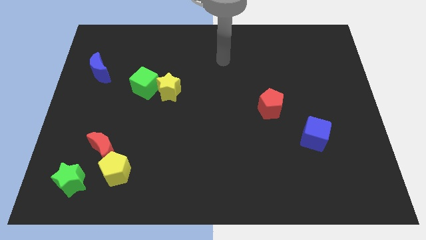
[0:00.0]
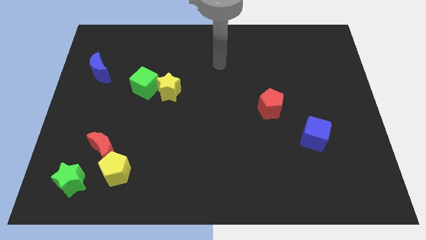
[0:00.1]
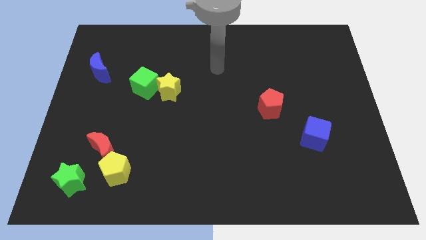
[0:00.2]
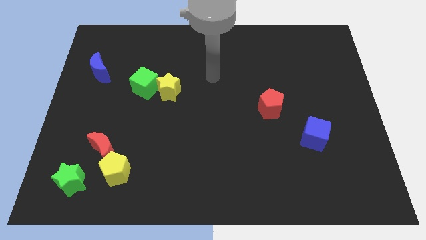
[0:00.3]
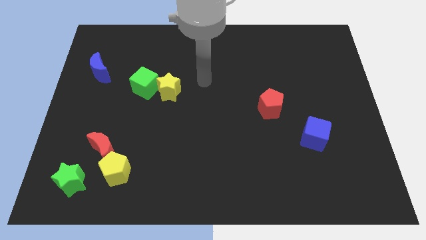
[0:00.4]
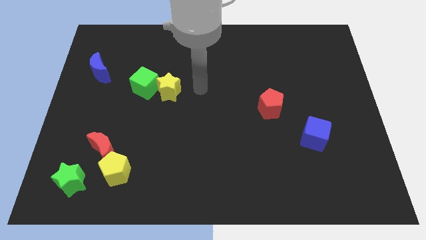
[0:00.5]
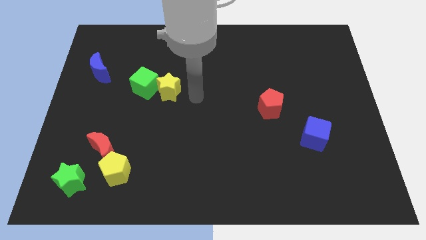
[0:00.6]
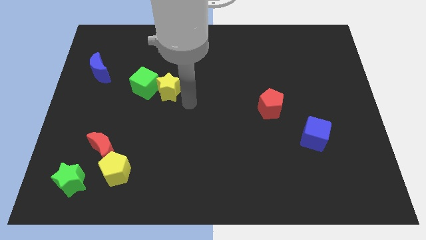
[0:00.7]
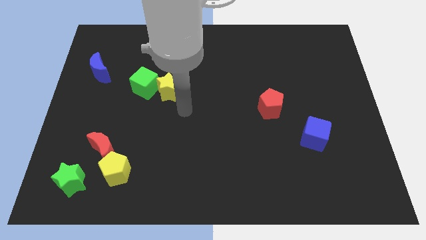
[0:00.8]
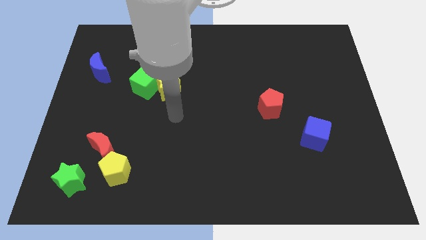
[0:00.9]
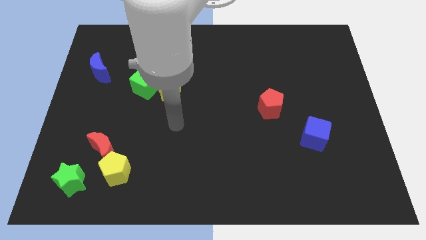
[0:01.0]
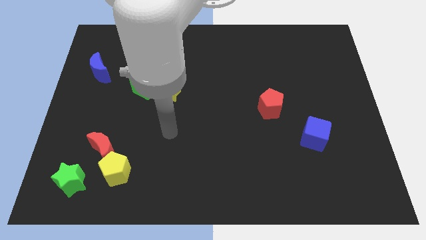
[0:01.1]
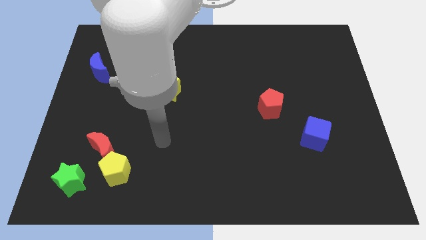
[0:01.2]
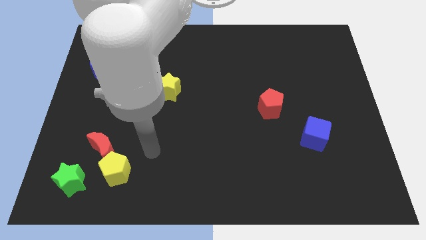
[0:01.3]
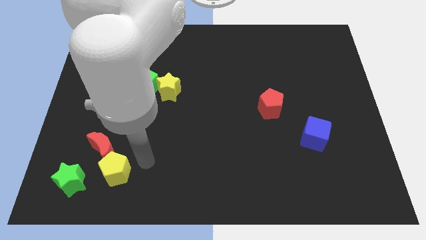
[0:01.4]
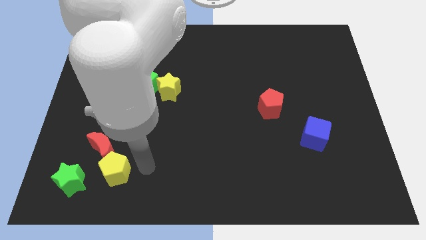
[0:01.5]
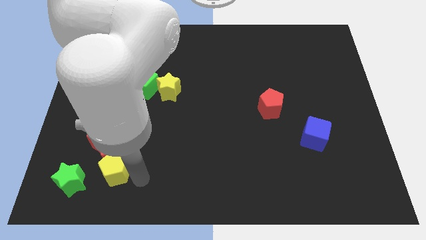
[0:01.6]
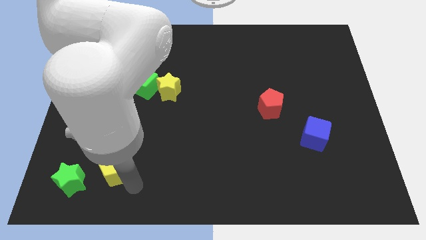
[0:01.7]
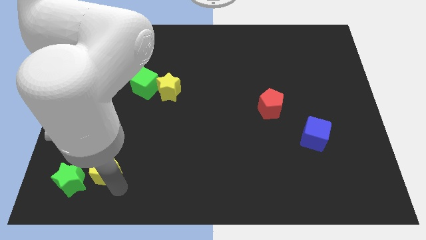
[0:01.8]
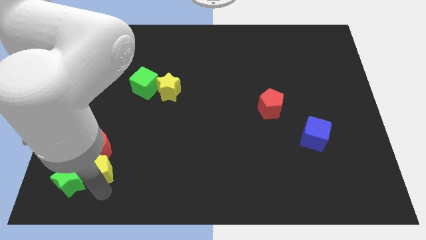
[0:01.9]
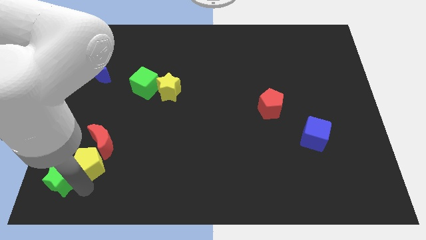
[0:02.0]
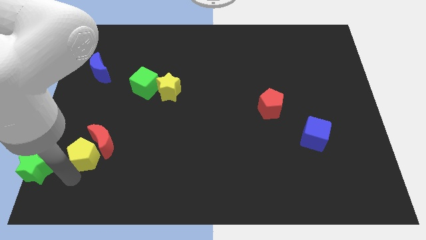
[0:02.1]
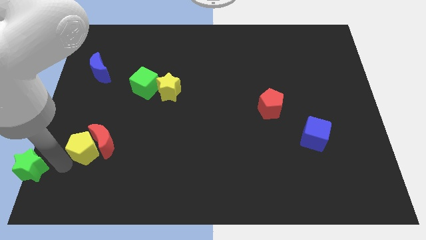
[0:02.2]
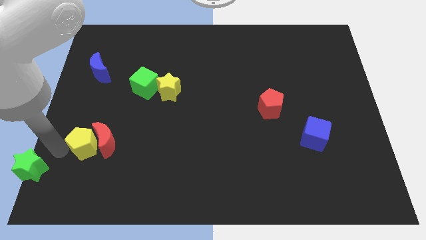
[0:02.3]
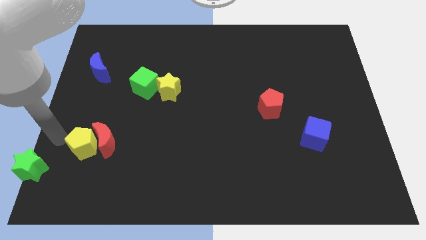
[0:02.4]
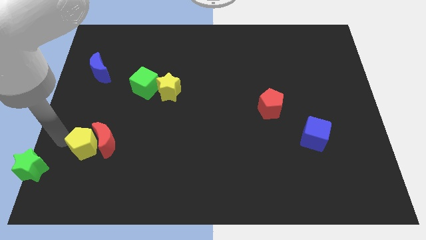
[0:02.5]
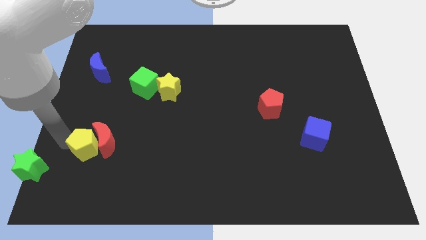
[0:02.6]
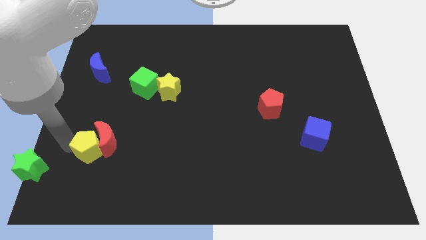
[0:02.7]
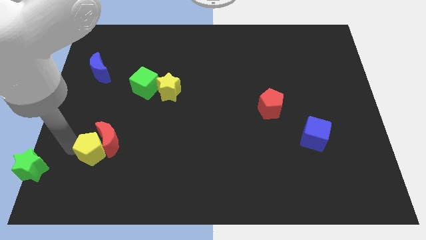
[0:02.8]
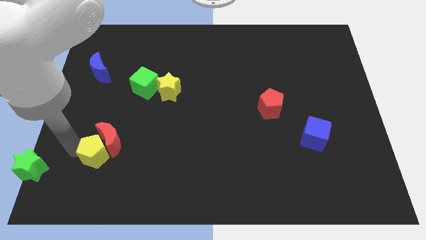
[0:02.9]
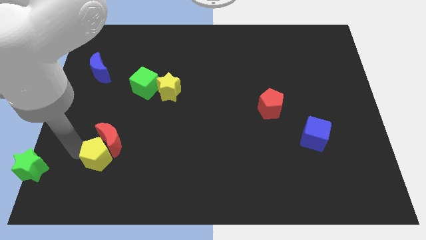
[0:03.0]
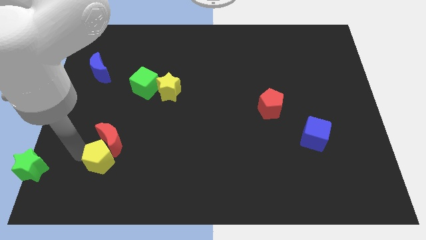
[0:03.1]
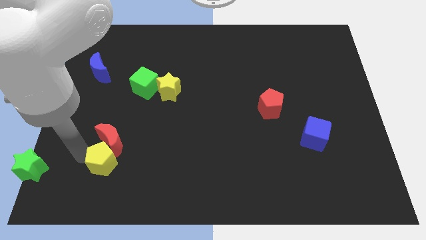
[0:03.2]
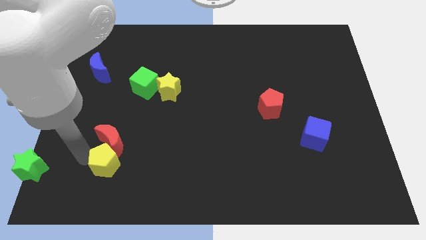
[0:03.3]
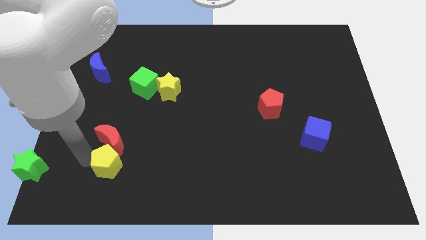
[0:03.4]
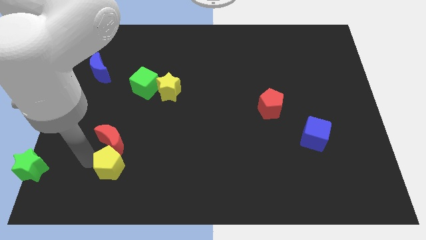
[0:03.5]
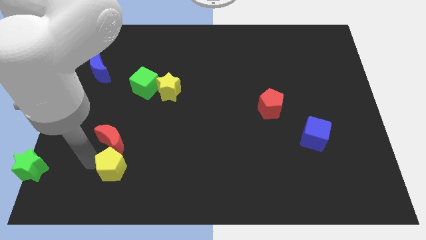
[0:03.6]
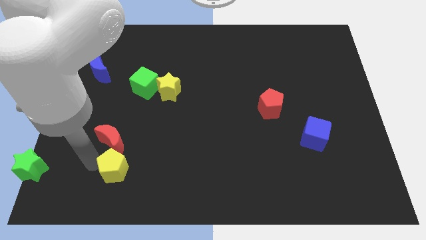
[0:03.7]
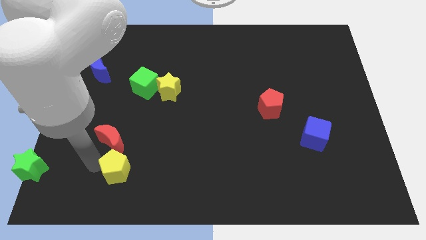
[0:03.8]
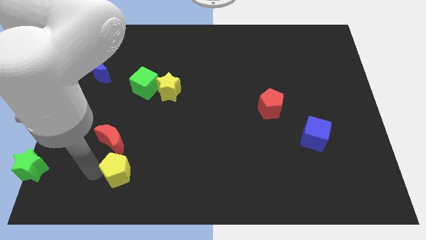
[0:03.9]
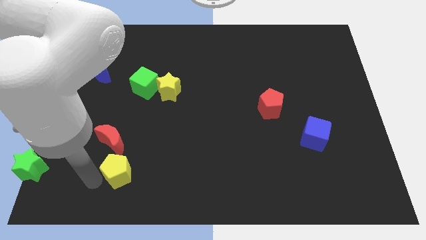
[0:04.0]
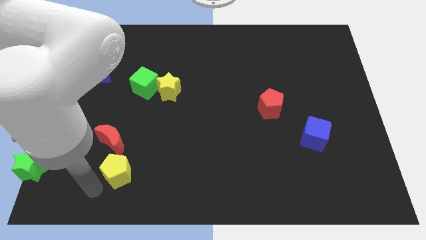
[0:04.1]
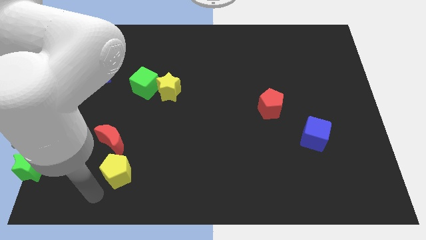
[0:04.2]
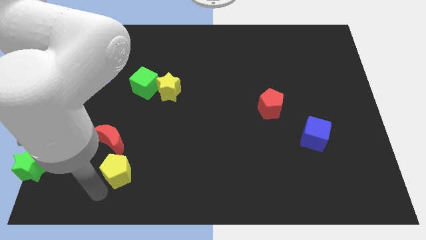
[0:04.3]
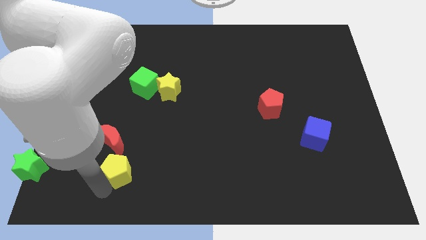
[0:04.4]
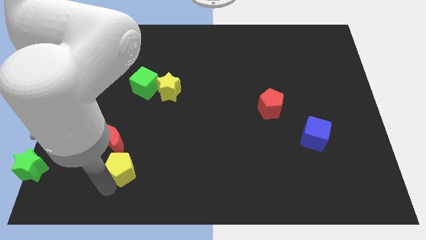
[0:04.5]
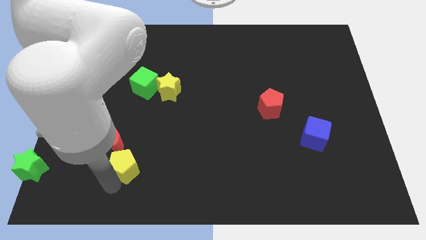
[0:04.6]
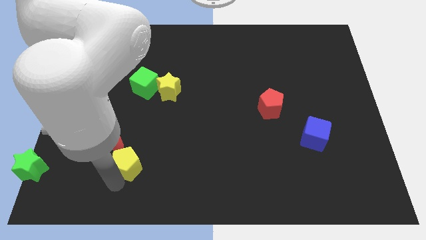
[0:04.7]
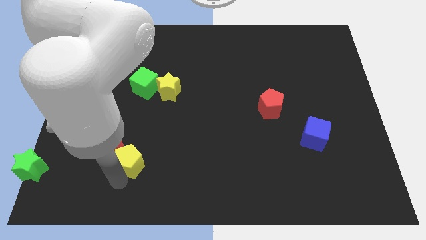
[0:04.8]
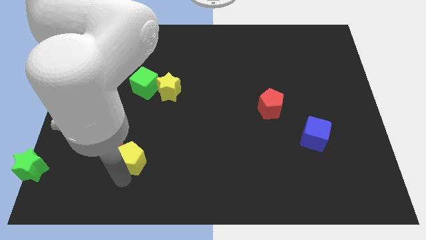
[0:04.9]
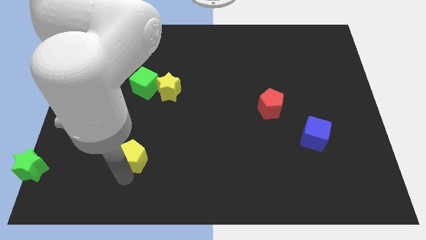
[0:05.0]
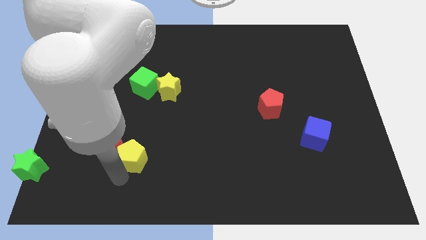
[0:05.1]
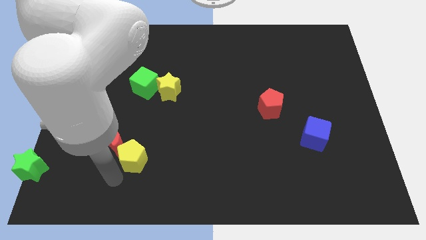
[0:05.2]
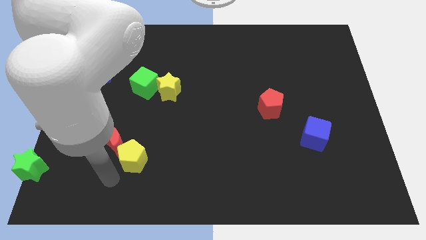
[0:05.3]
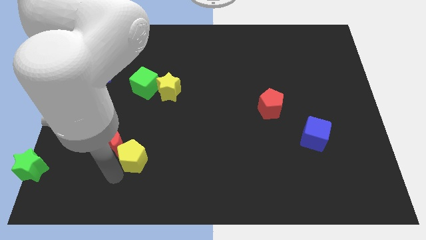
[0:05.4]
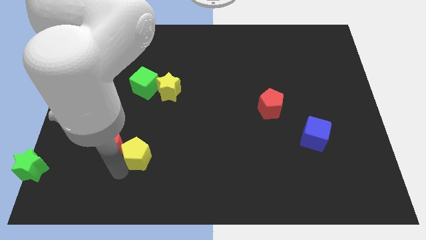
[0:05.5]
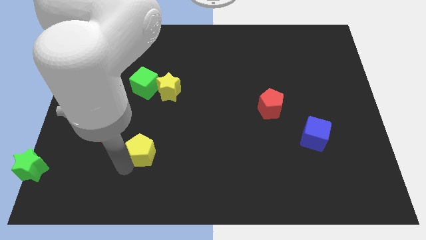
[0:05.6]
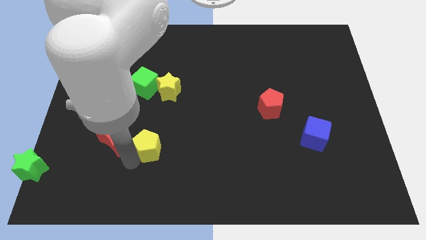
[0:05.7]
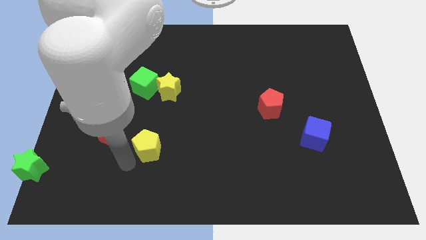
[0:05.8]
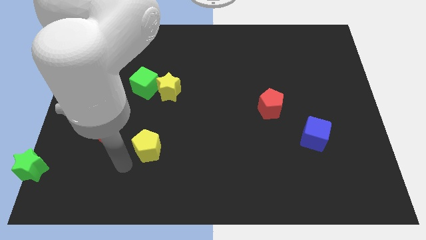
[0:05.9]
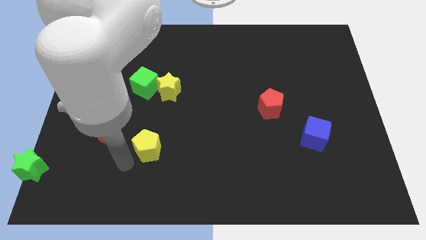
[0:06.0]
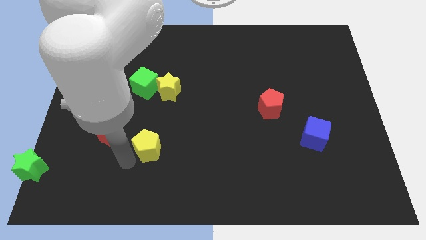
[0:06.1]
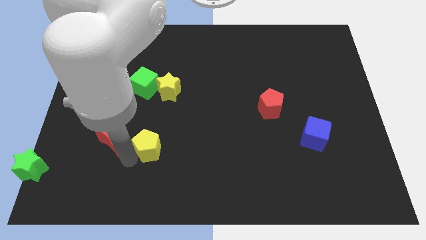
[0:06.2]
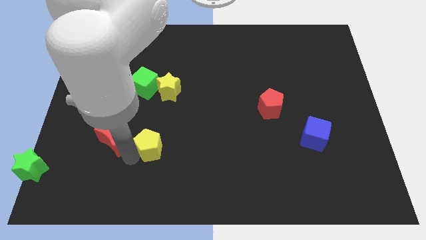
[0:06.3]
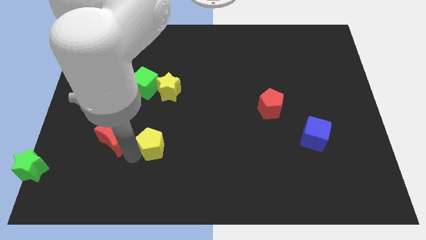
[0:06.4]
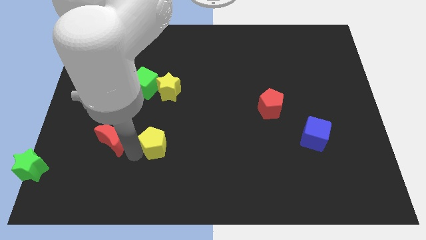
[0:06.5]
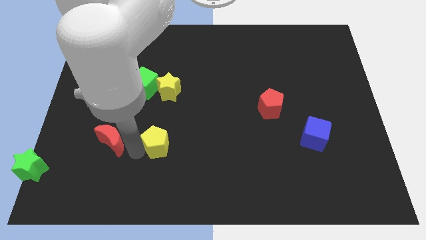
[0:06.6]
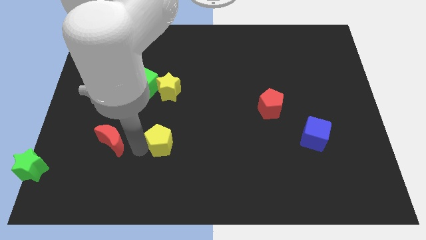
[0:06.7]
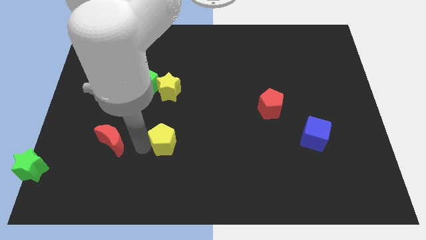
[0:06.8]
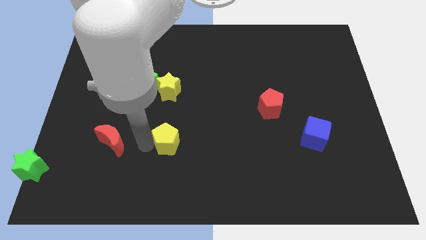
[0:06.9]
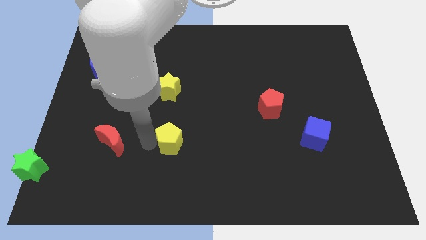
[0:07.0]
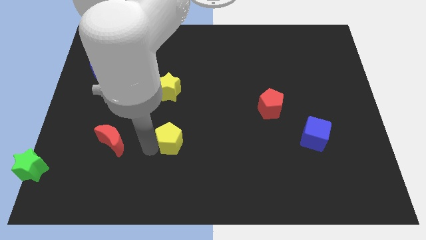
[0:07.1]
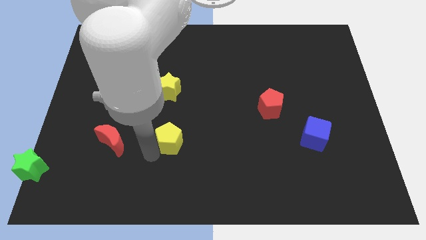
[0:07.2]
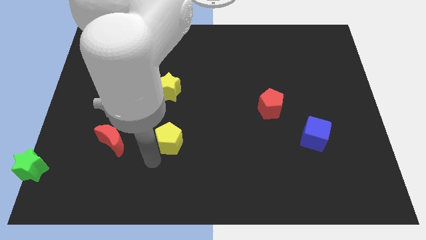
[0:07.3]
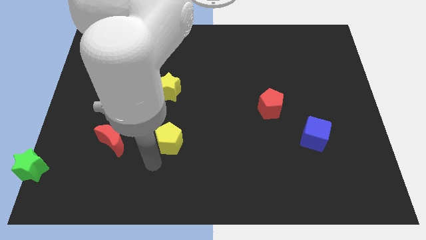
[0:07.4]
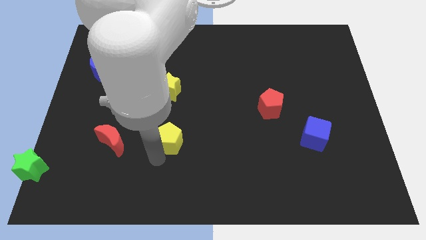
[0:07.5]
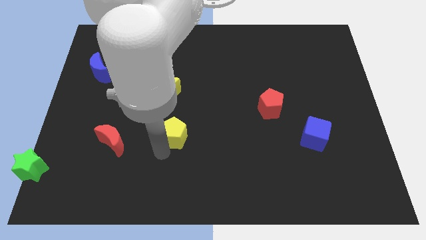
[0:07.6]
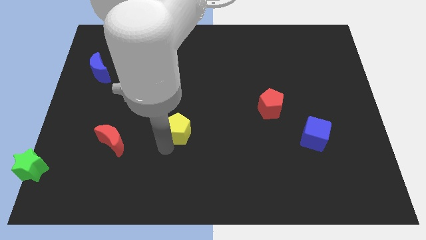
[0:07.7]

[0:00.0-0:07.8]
move the yellow pentagon to the middle of the board
